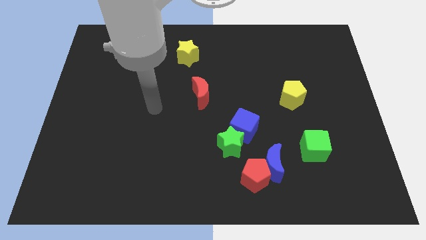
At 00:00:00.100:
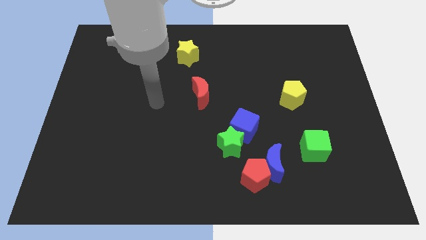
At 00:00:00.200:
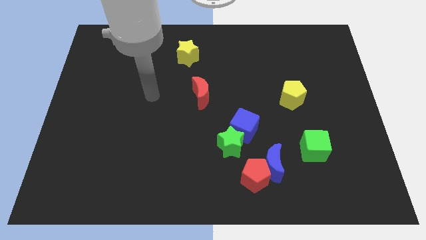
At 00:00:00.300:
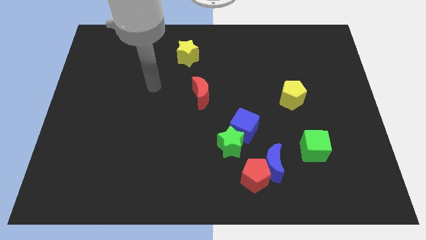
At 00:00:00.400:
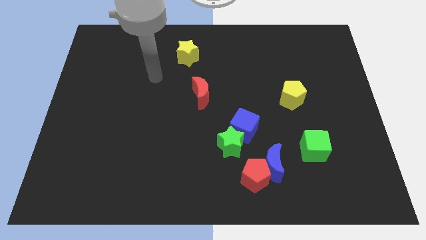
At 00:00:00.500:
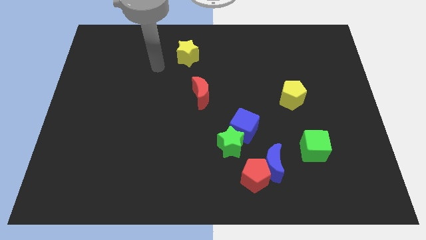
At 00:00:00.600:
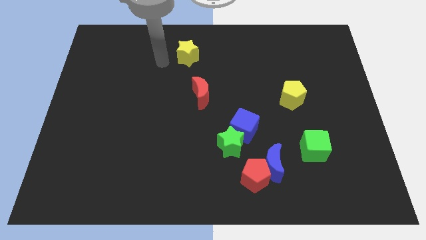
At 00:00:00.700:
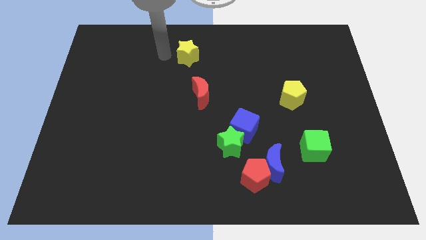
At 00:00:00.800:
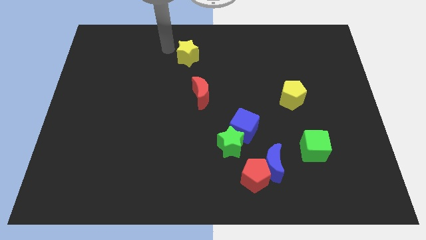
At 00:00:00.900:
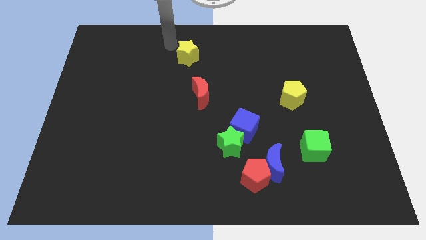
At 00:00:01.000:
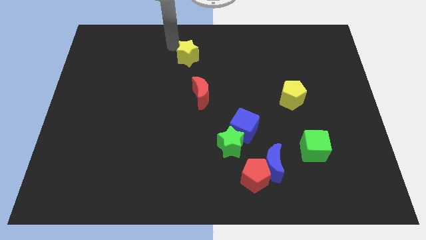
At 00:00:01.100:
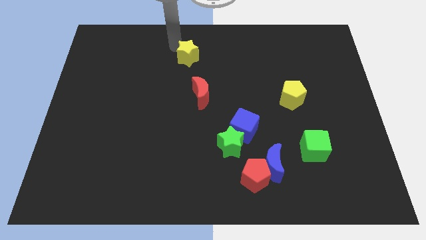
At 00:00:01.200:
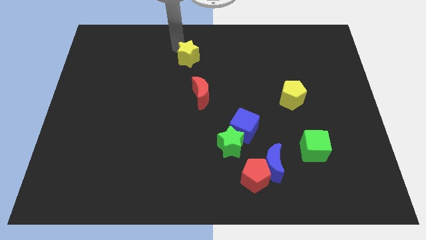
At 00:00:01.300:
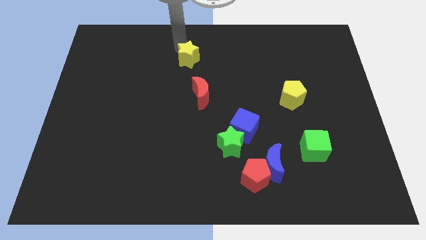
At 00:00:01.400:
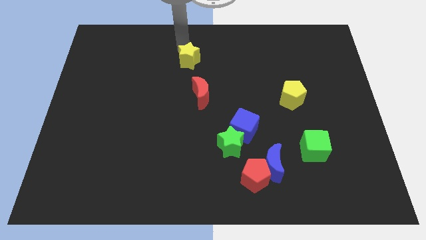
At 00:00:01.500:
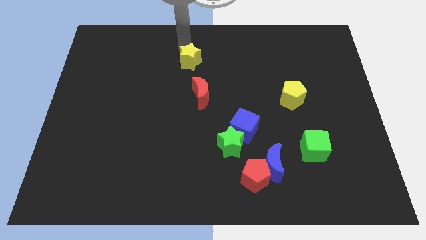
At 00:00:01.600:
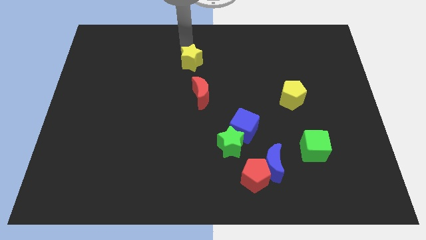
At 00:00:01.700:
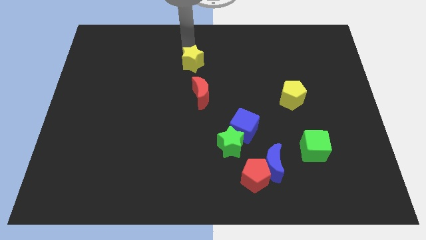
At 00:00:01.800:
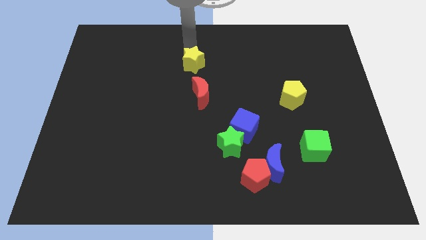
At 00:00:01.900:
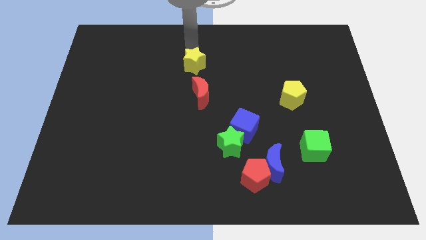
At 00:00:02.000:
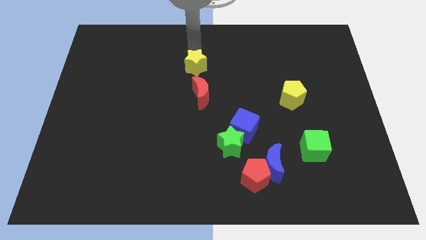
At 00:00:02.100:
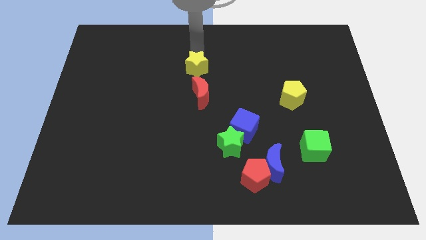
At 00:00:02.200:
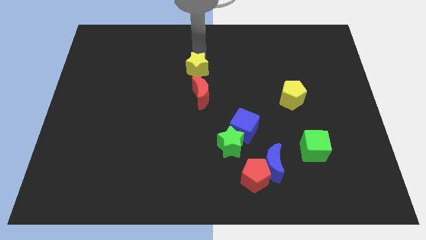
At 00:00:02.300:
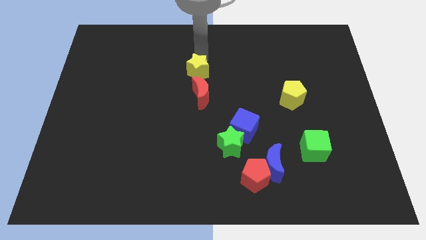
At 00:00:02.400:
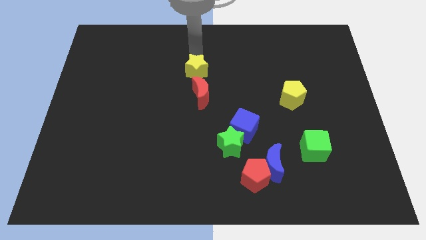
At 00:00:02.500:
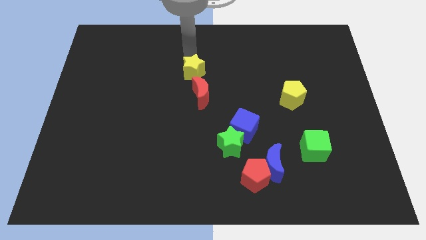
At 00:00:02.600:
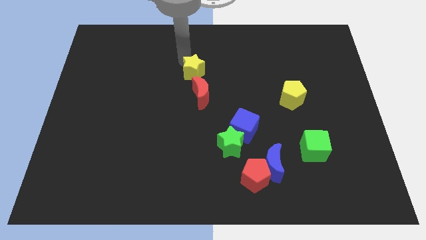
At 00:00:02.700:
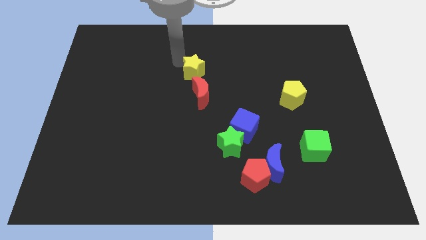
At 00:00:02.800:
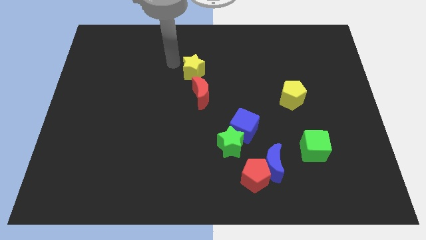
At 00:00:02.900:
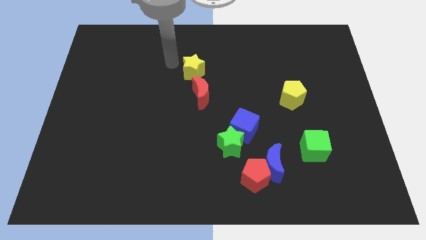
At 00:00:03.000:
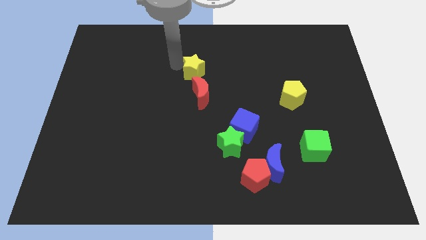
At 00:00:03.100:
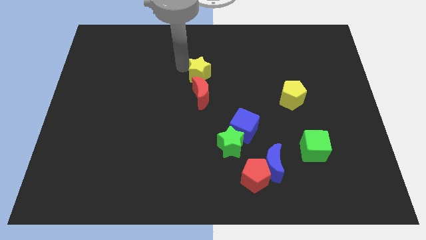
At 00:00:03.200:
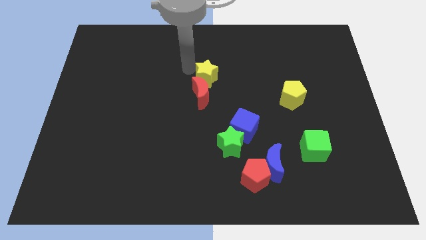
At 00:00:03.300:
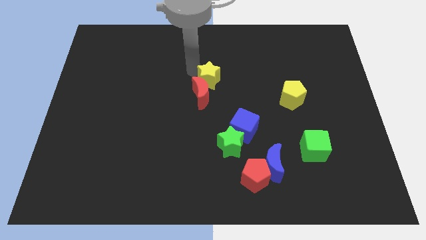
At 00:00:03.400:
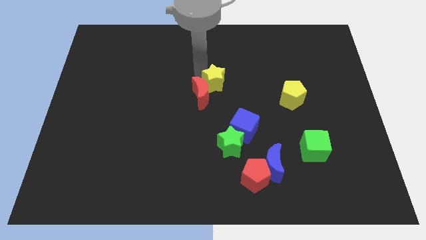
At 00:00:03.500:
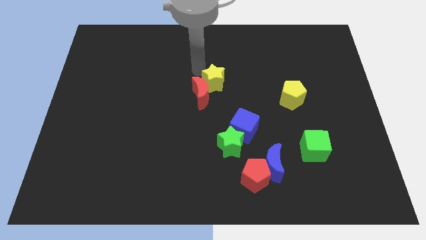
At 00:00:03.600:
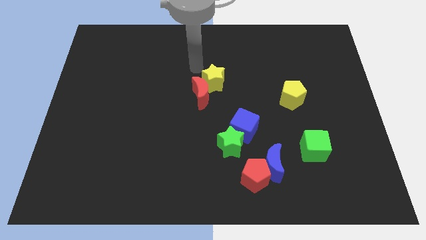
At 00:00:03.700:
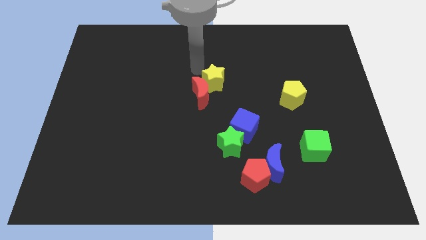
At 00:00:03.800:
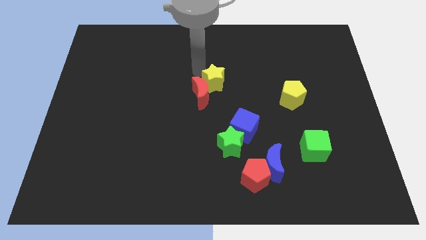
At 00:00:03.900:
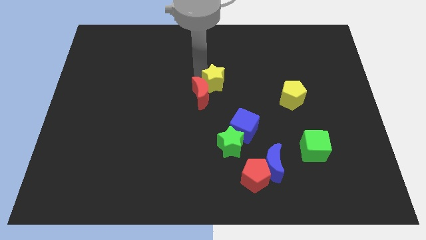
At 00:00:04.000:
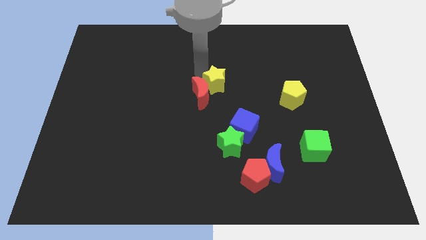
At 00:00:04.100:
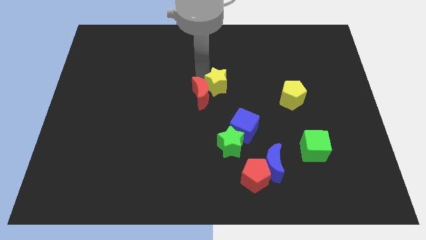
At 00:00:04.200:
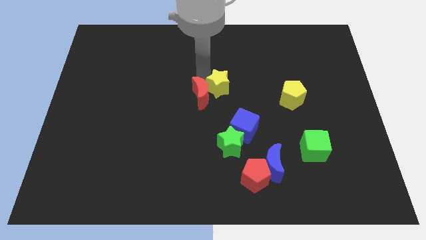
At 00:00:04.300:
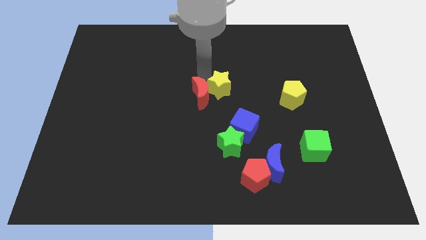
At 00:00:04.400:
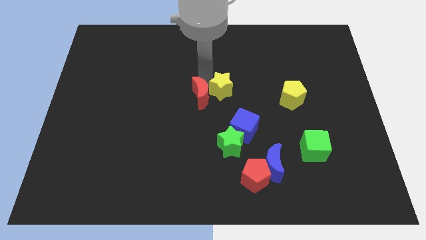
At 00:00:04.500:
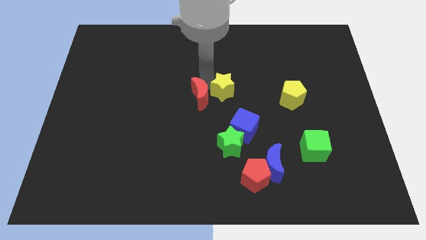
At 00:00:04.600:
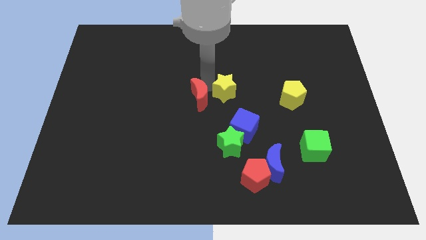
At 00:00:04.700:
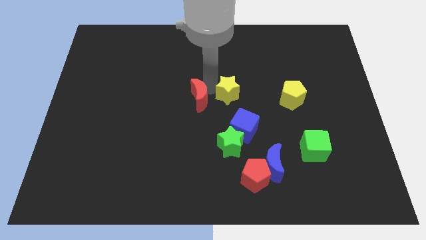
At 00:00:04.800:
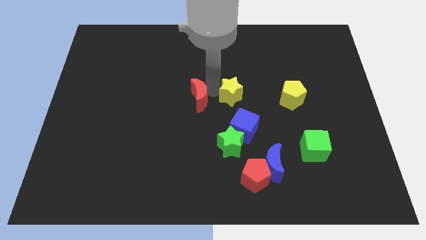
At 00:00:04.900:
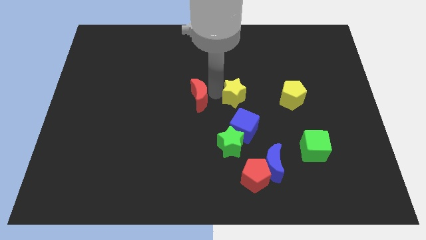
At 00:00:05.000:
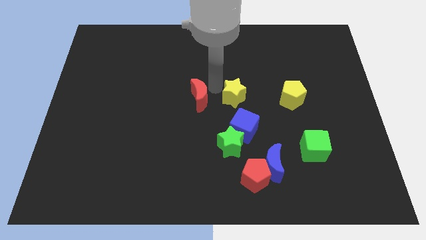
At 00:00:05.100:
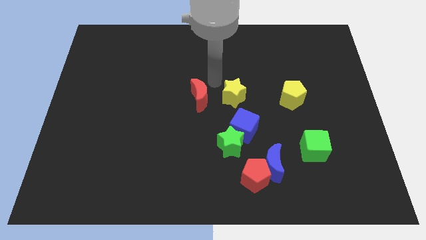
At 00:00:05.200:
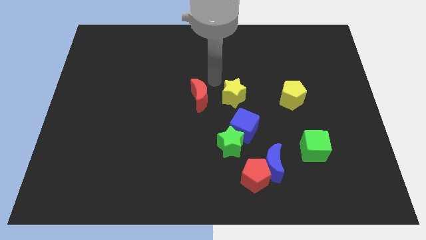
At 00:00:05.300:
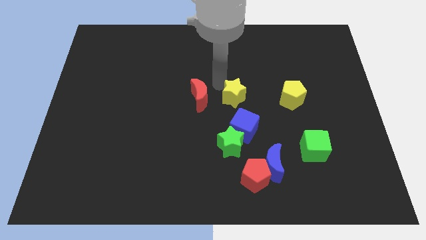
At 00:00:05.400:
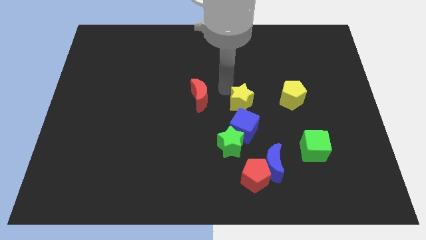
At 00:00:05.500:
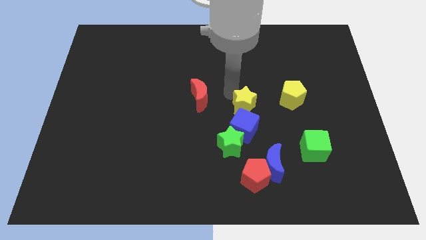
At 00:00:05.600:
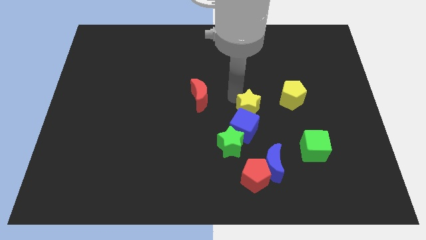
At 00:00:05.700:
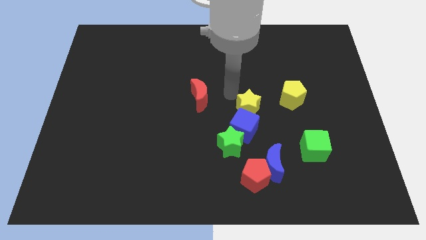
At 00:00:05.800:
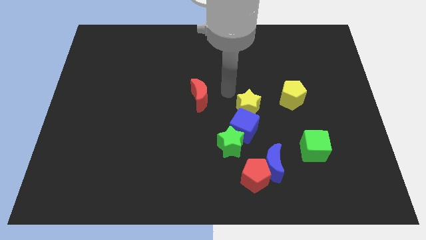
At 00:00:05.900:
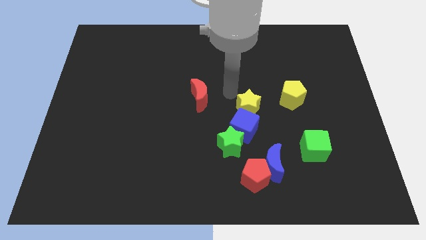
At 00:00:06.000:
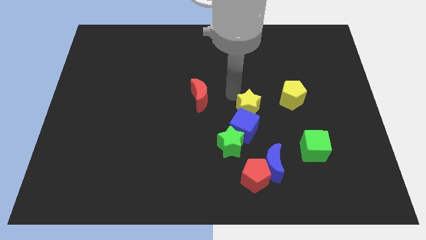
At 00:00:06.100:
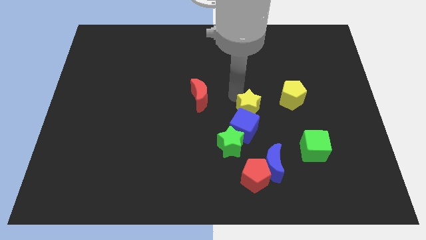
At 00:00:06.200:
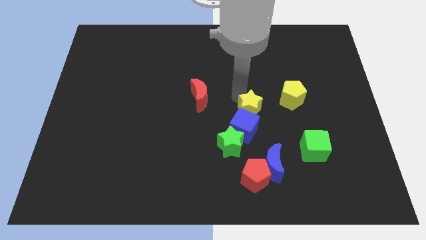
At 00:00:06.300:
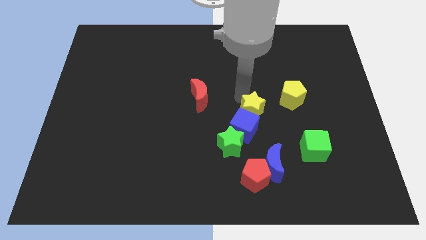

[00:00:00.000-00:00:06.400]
move the yellow star to the top side of the blue moon

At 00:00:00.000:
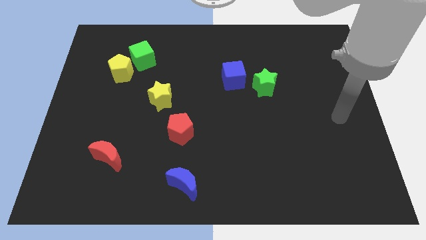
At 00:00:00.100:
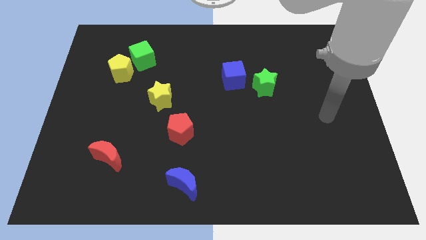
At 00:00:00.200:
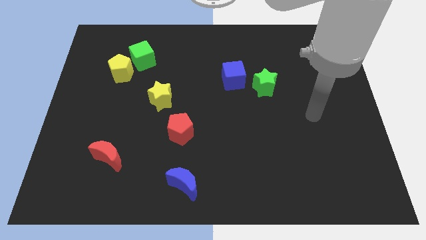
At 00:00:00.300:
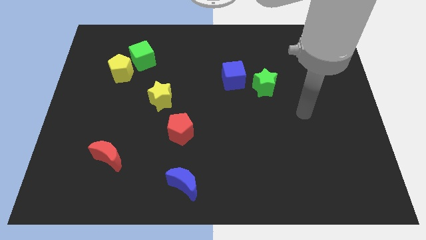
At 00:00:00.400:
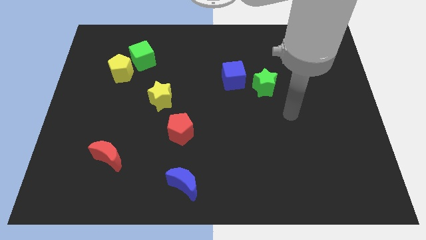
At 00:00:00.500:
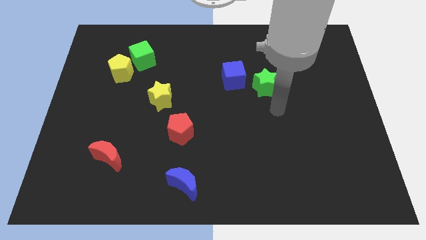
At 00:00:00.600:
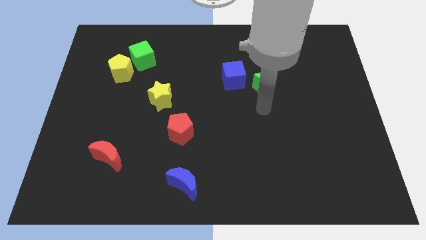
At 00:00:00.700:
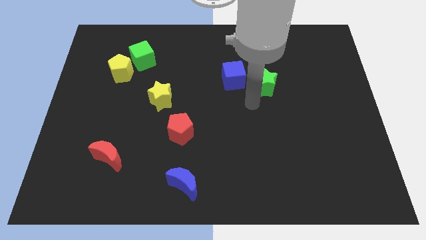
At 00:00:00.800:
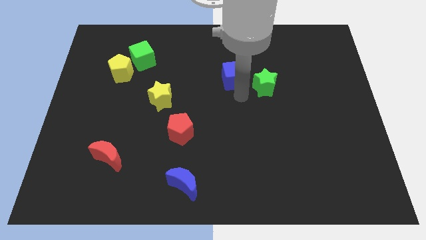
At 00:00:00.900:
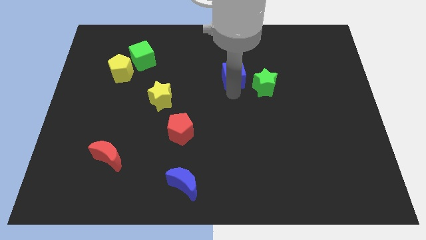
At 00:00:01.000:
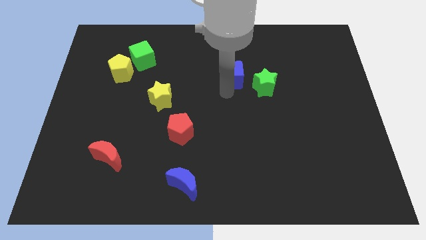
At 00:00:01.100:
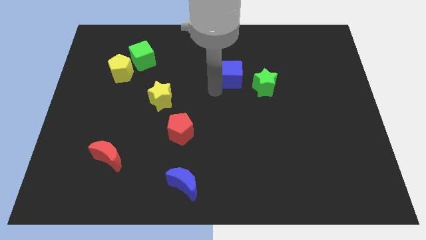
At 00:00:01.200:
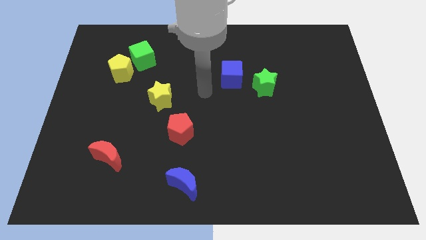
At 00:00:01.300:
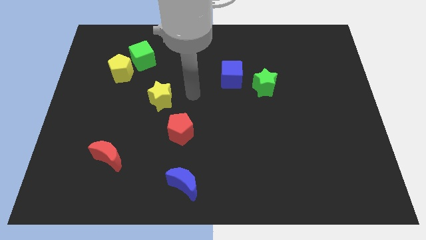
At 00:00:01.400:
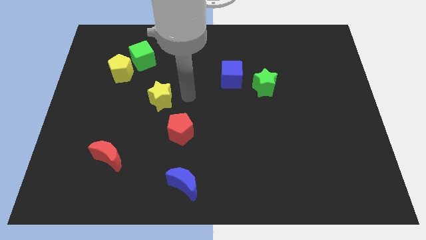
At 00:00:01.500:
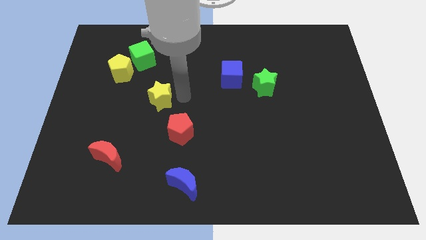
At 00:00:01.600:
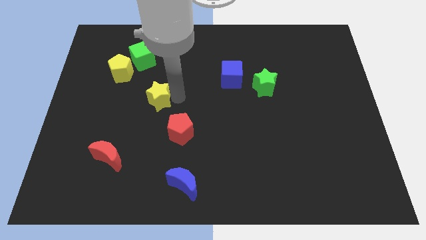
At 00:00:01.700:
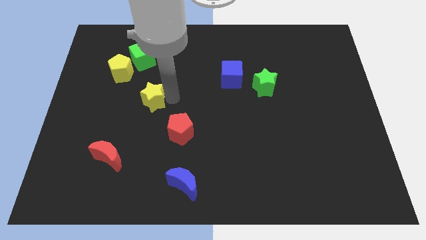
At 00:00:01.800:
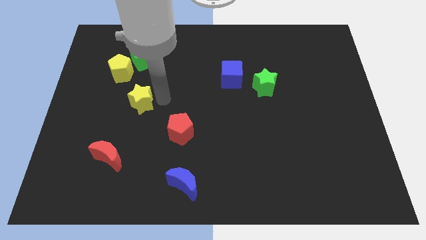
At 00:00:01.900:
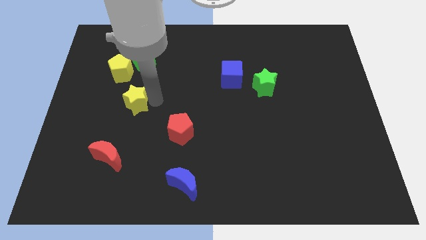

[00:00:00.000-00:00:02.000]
move the yellow star to the bottom side of the yellow pentagon
